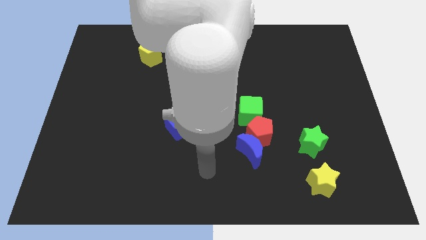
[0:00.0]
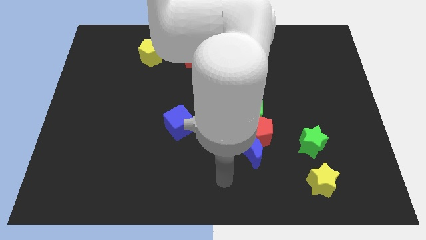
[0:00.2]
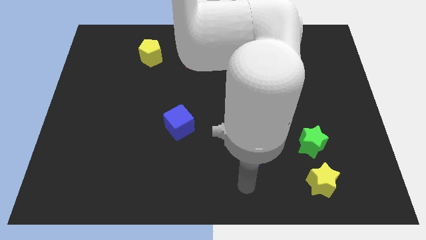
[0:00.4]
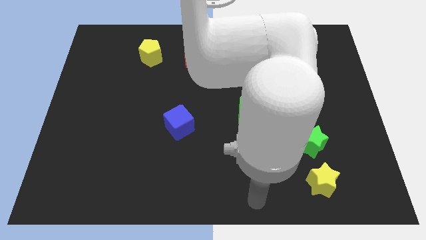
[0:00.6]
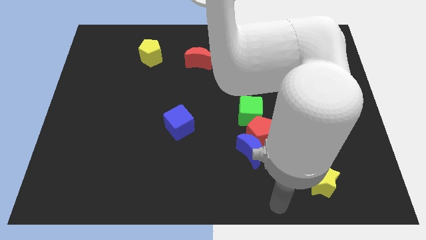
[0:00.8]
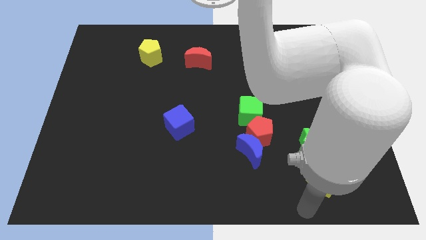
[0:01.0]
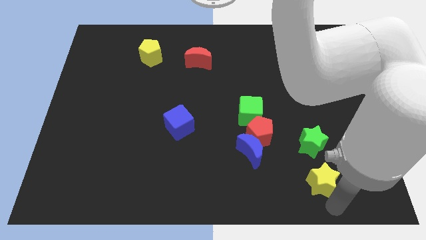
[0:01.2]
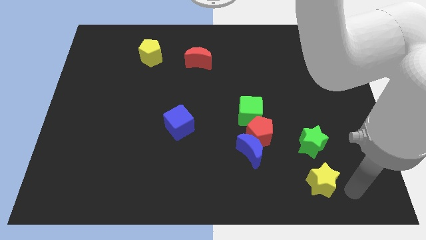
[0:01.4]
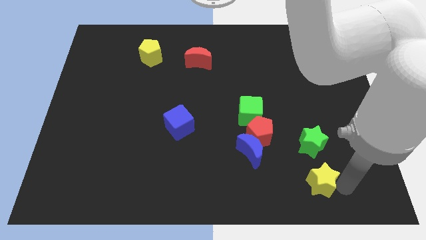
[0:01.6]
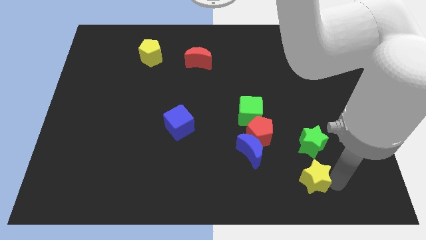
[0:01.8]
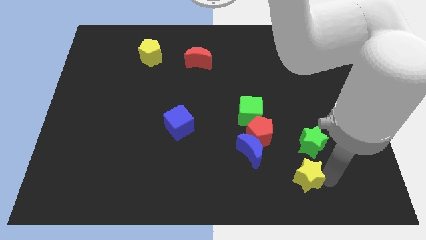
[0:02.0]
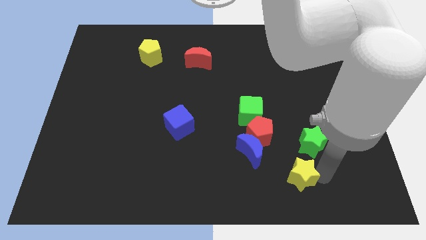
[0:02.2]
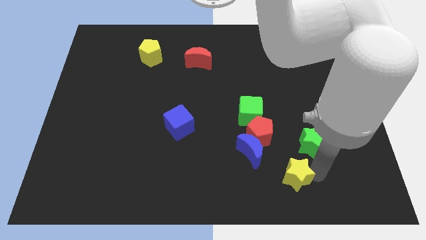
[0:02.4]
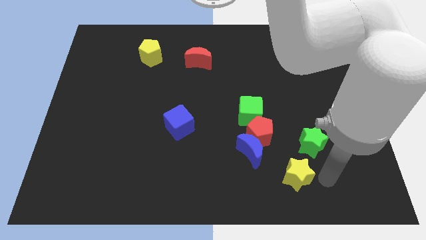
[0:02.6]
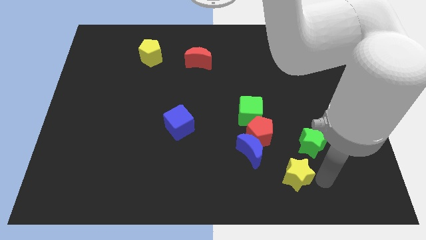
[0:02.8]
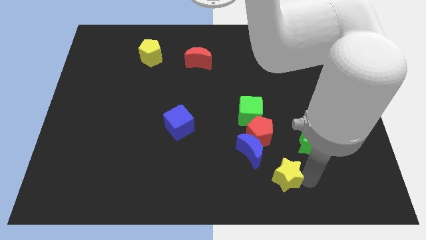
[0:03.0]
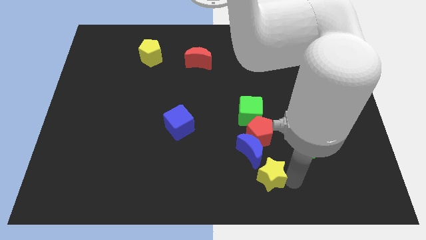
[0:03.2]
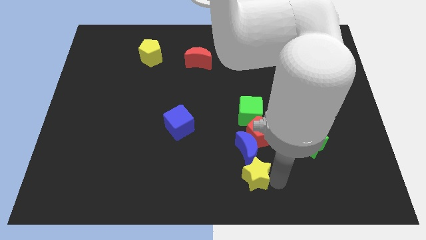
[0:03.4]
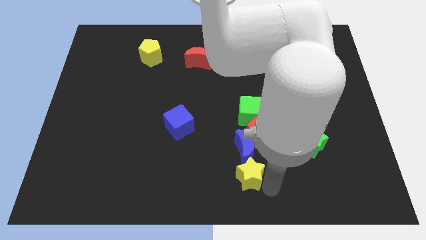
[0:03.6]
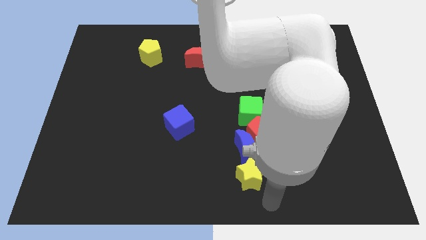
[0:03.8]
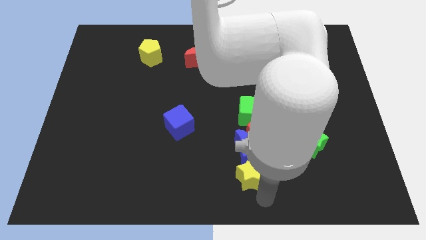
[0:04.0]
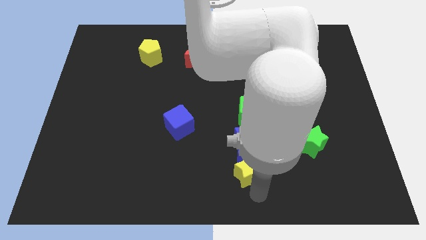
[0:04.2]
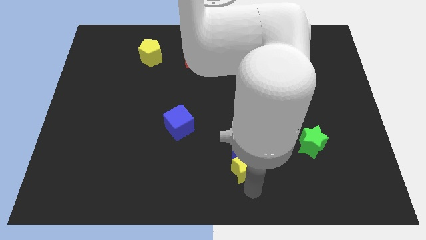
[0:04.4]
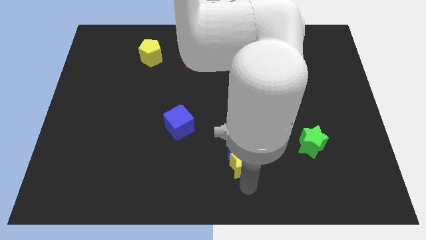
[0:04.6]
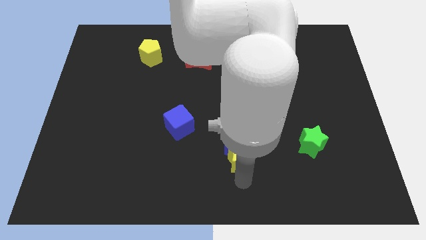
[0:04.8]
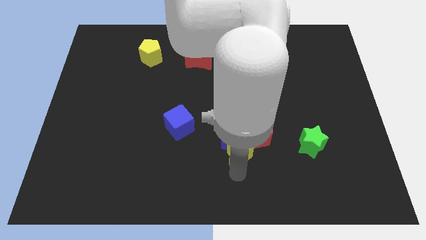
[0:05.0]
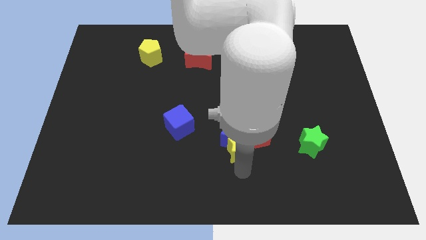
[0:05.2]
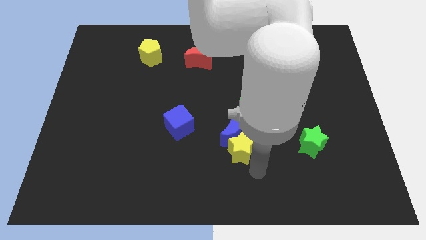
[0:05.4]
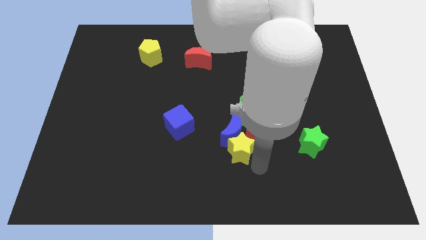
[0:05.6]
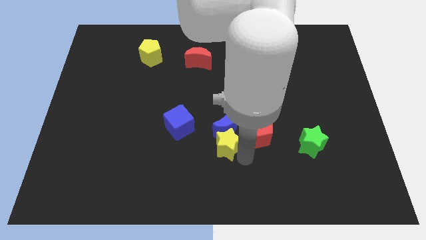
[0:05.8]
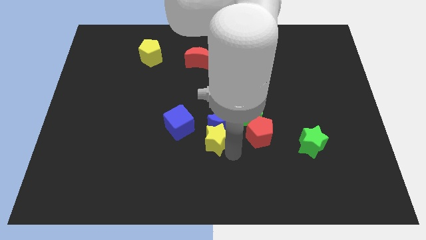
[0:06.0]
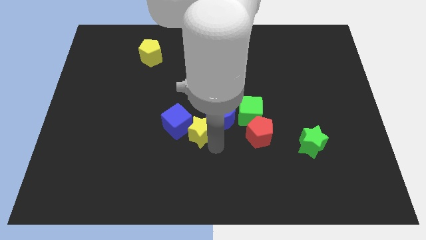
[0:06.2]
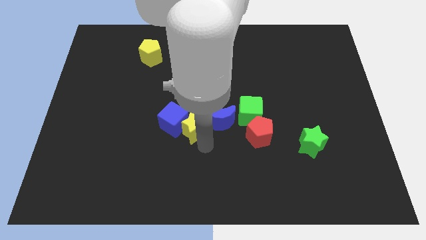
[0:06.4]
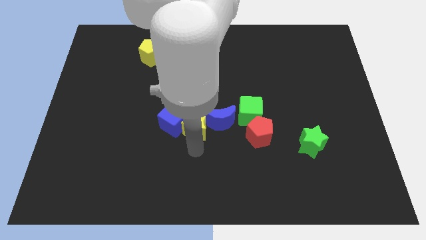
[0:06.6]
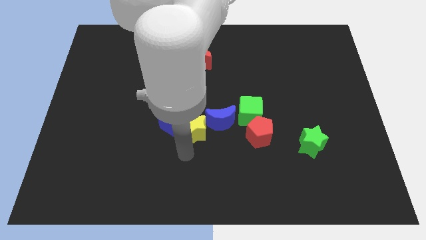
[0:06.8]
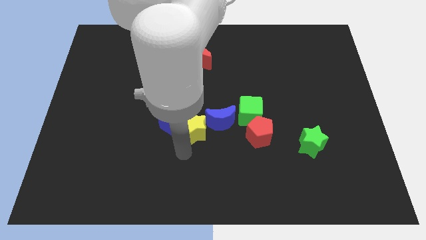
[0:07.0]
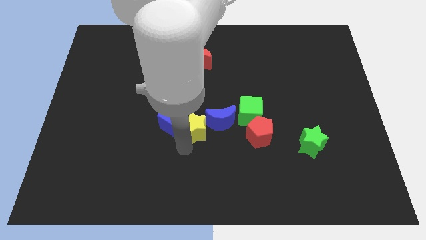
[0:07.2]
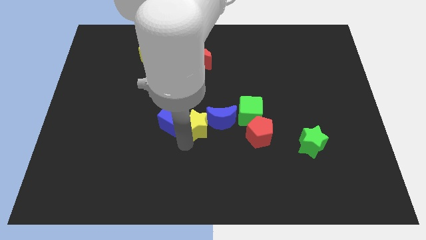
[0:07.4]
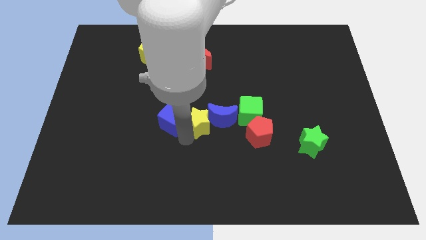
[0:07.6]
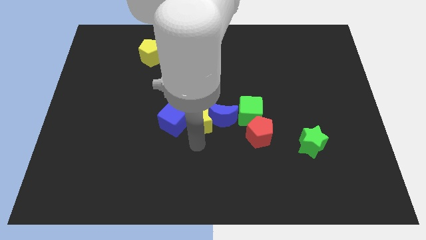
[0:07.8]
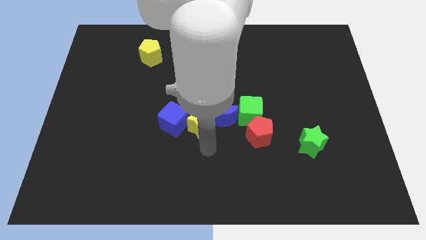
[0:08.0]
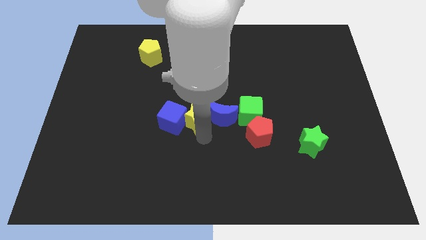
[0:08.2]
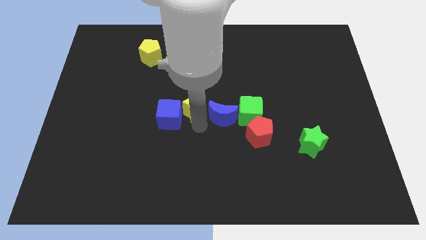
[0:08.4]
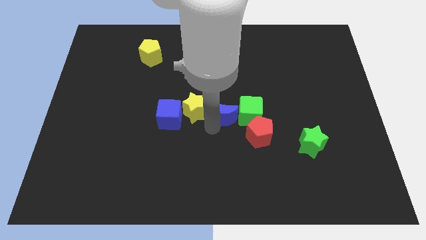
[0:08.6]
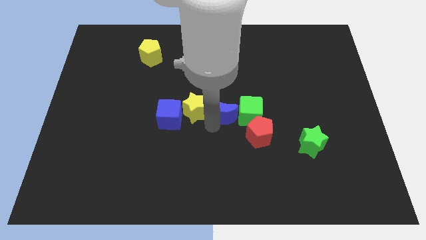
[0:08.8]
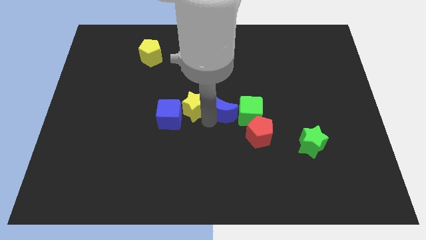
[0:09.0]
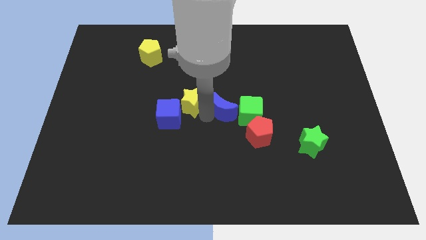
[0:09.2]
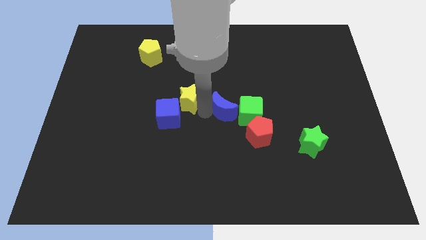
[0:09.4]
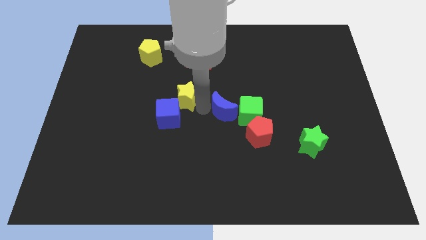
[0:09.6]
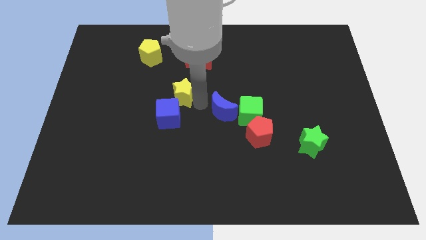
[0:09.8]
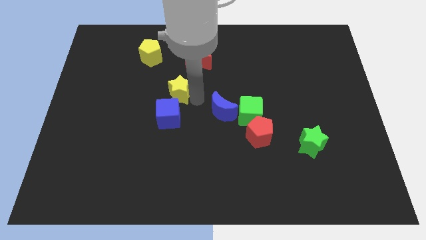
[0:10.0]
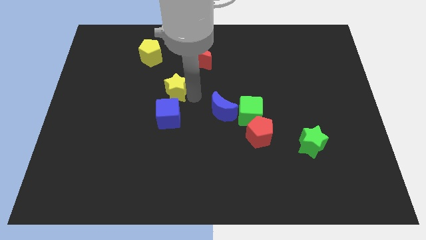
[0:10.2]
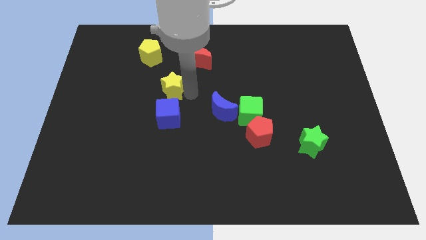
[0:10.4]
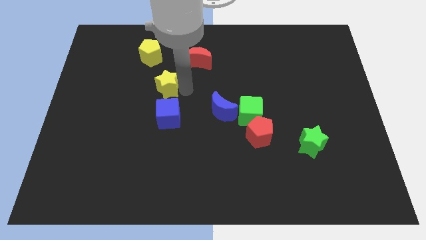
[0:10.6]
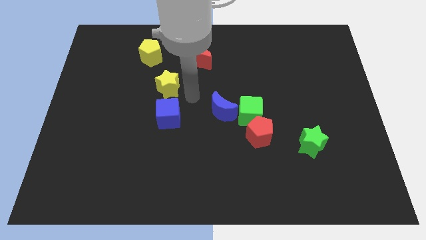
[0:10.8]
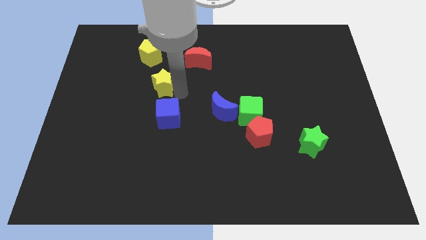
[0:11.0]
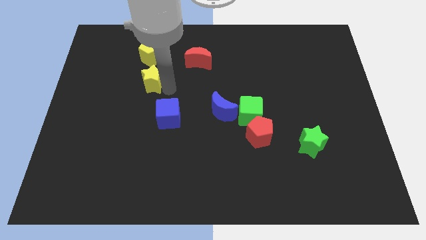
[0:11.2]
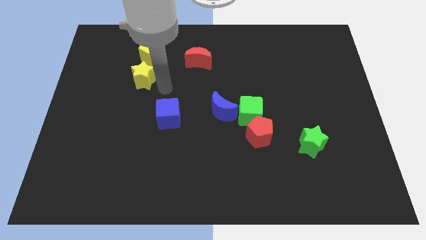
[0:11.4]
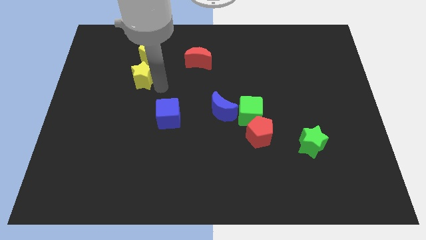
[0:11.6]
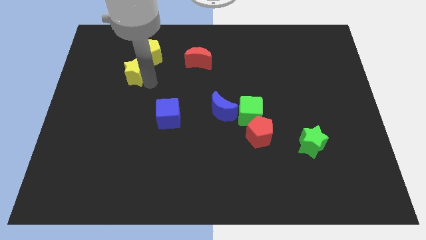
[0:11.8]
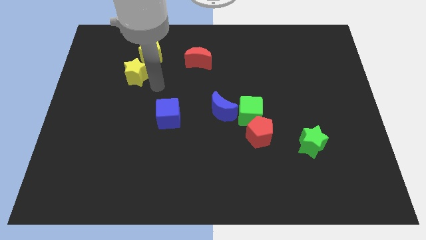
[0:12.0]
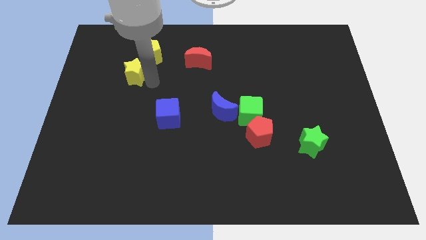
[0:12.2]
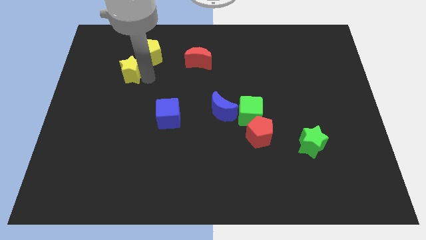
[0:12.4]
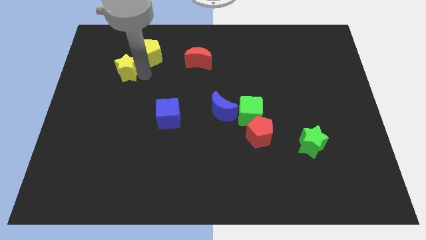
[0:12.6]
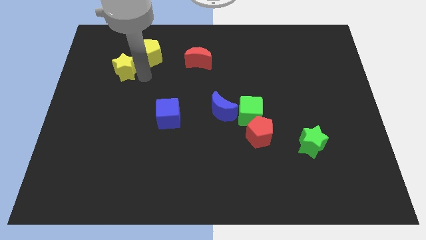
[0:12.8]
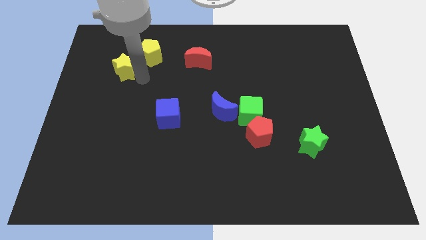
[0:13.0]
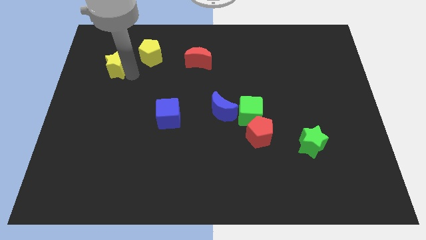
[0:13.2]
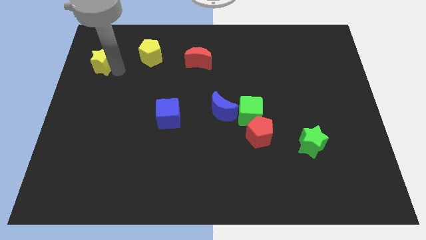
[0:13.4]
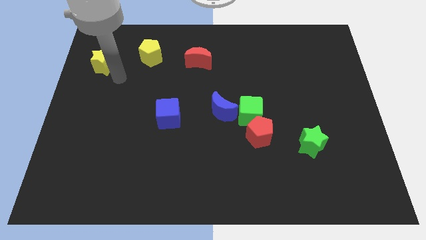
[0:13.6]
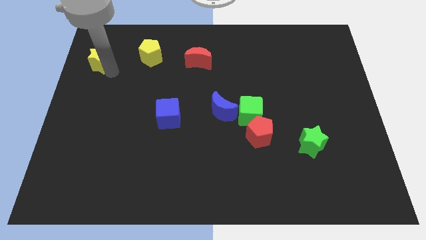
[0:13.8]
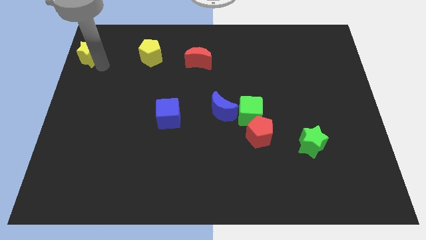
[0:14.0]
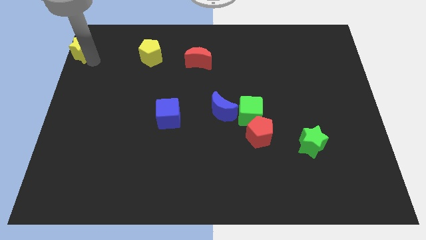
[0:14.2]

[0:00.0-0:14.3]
push the yellow star to the top left of the board

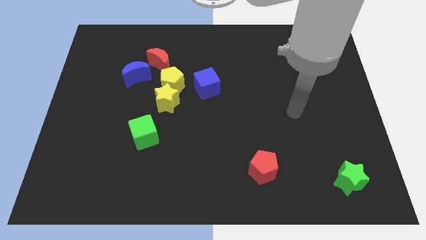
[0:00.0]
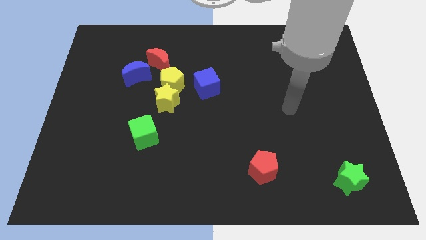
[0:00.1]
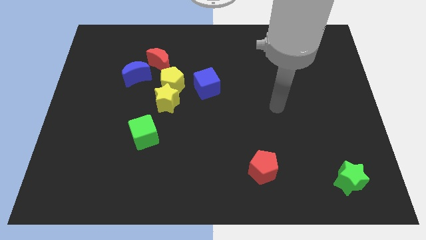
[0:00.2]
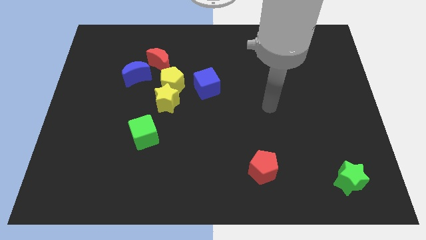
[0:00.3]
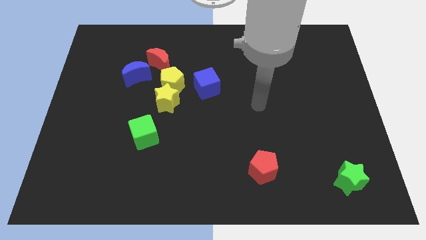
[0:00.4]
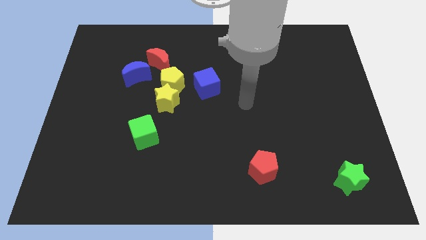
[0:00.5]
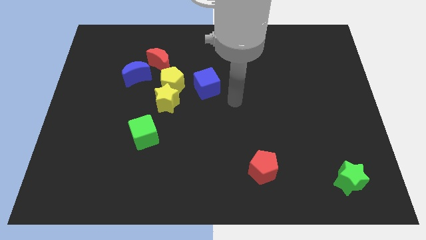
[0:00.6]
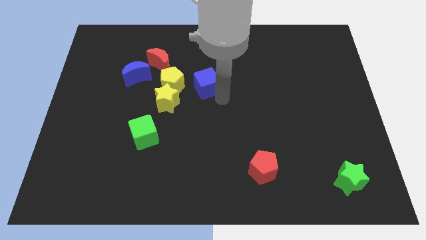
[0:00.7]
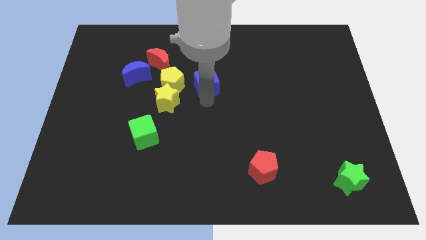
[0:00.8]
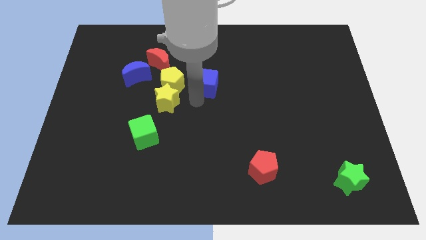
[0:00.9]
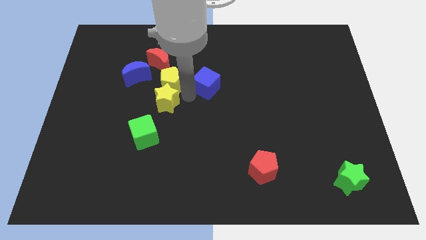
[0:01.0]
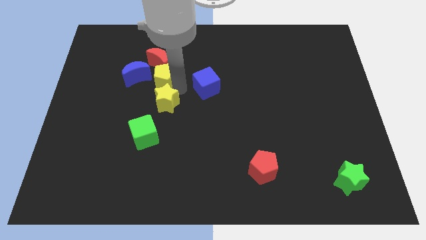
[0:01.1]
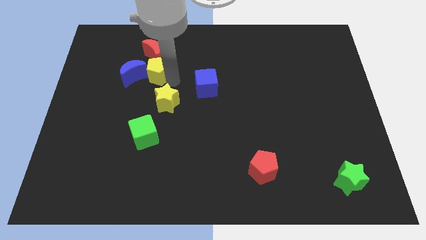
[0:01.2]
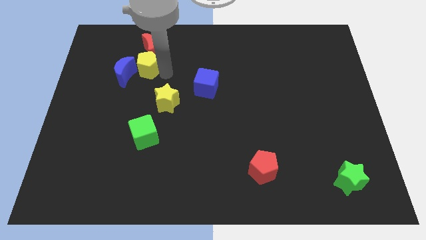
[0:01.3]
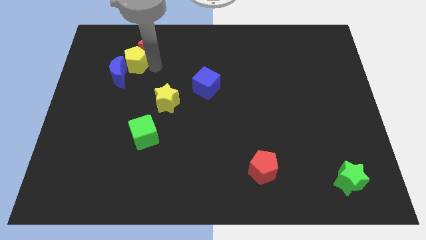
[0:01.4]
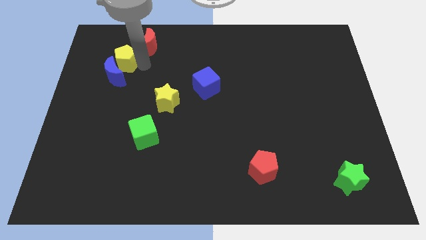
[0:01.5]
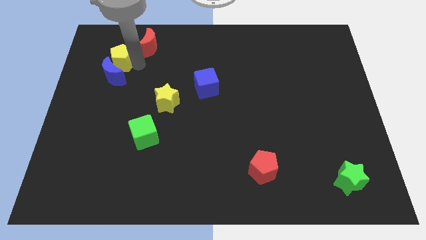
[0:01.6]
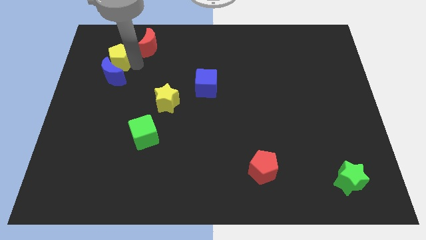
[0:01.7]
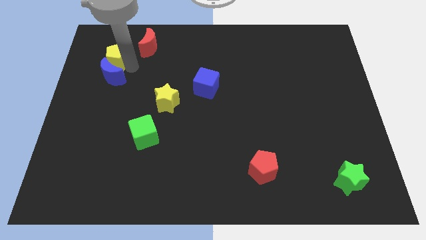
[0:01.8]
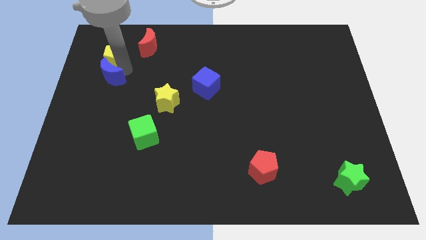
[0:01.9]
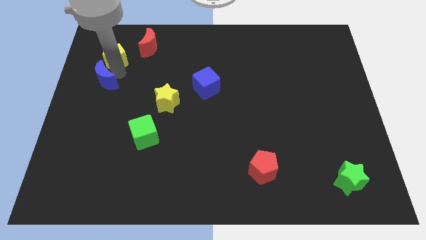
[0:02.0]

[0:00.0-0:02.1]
move the blue moon to the left side
